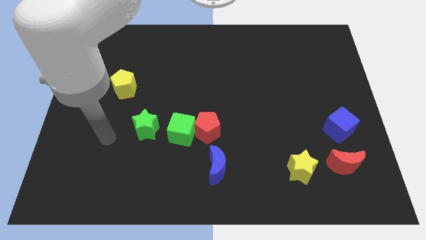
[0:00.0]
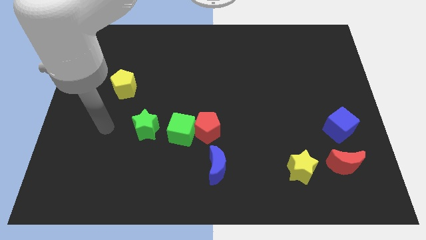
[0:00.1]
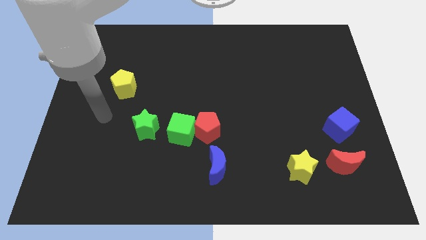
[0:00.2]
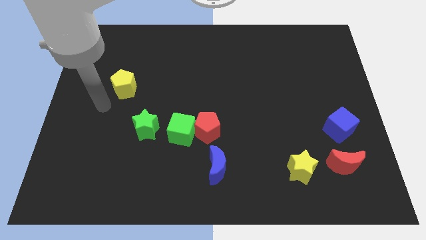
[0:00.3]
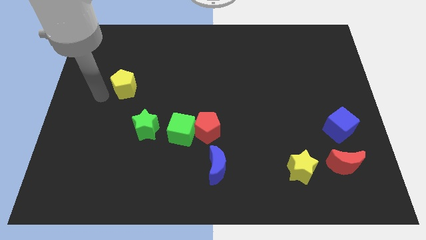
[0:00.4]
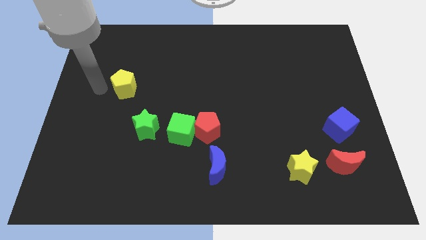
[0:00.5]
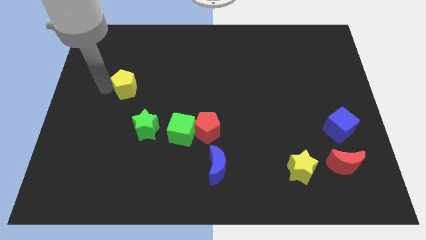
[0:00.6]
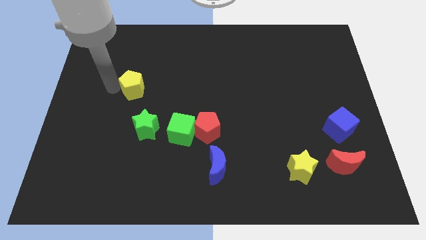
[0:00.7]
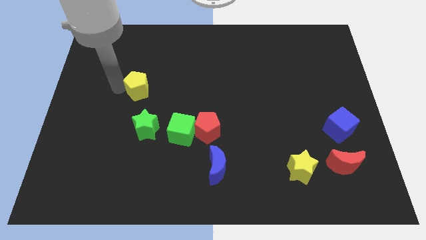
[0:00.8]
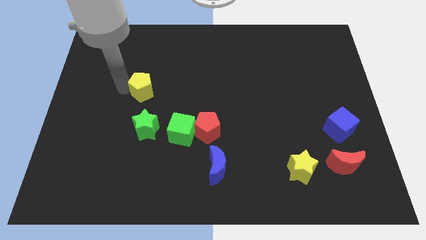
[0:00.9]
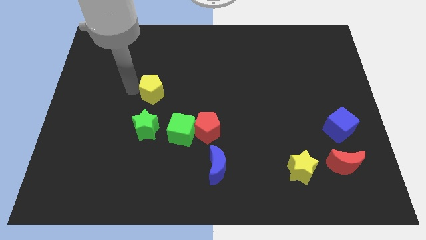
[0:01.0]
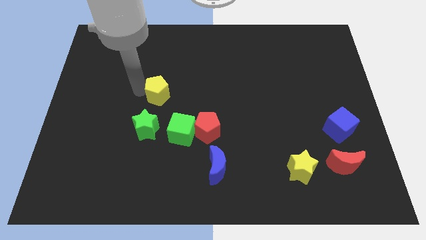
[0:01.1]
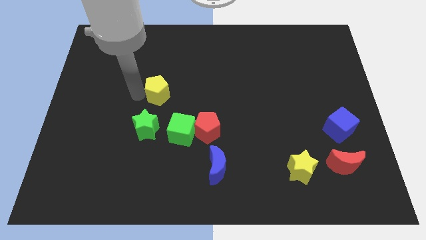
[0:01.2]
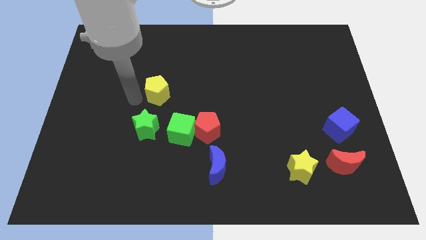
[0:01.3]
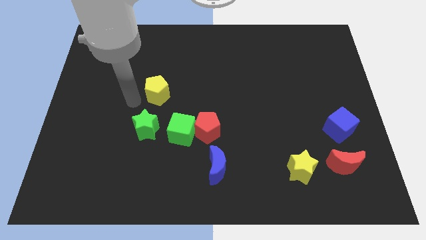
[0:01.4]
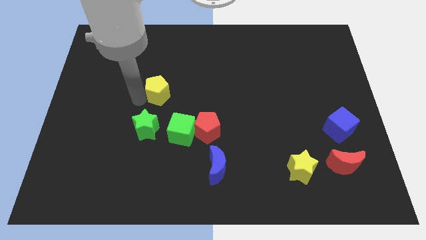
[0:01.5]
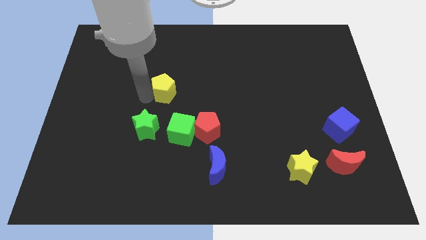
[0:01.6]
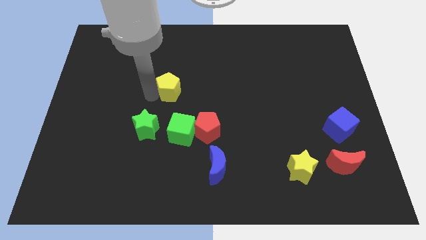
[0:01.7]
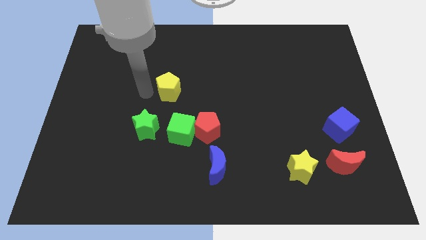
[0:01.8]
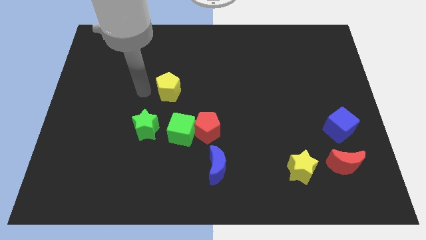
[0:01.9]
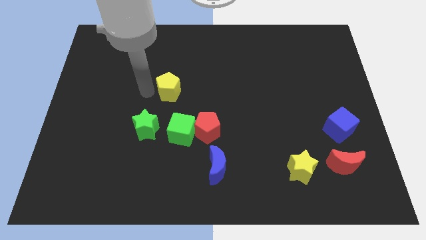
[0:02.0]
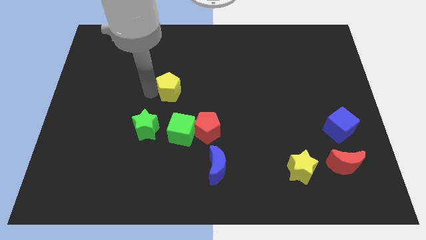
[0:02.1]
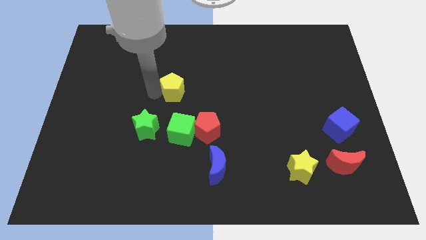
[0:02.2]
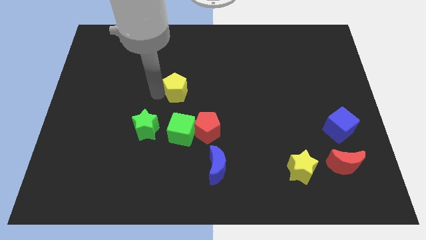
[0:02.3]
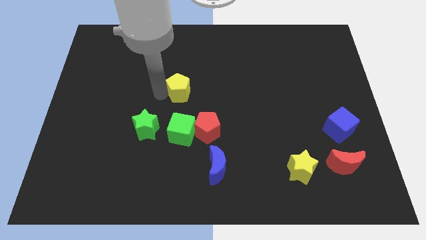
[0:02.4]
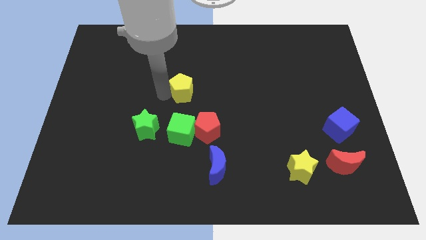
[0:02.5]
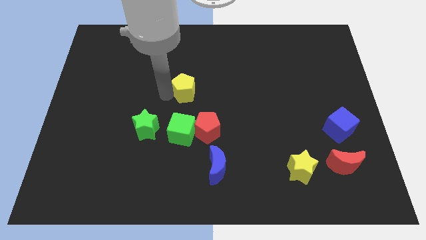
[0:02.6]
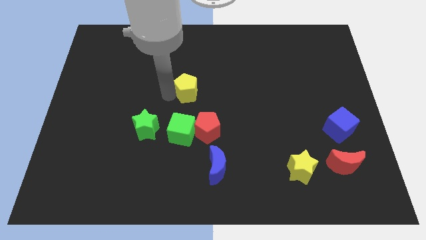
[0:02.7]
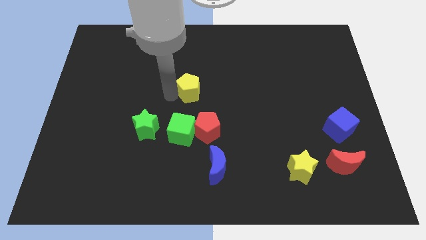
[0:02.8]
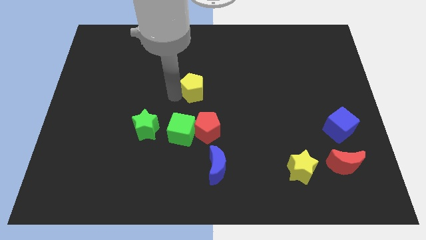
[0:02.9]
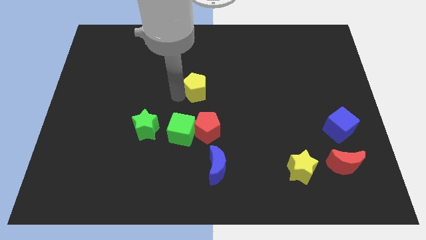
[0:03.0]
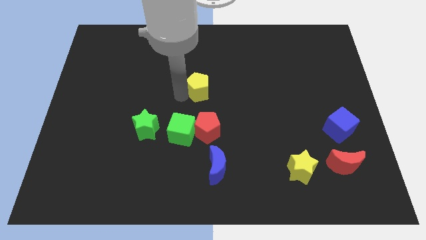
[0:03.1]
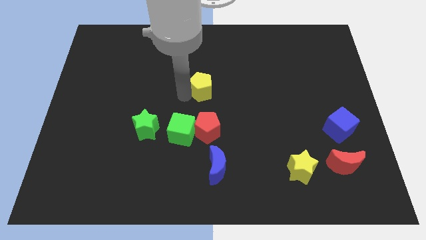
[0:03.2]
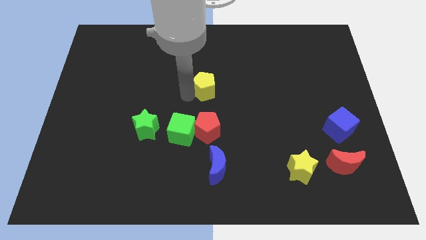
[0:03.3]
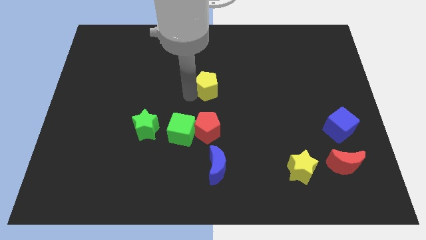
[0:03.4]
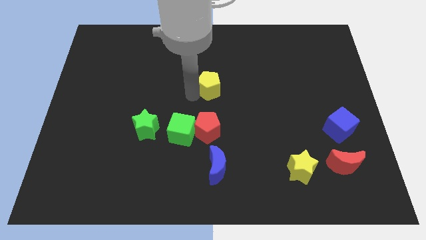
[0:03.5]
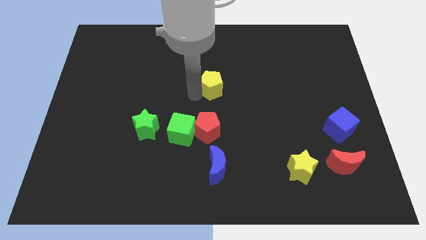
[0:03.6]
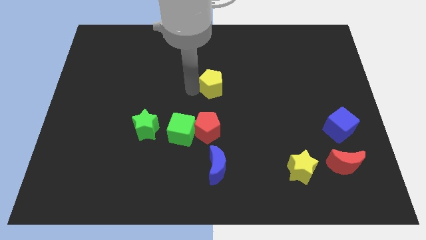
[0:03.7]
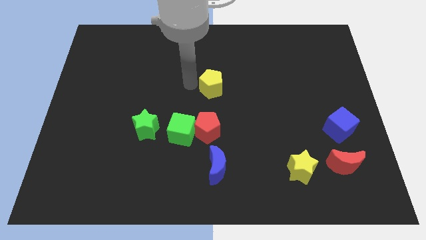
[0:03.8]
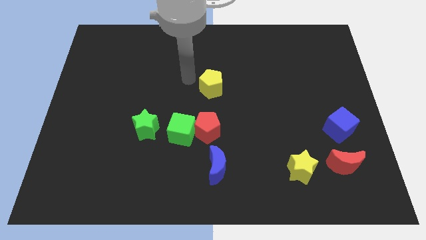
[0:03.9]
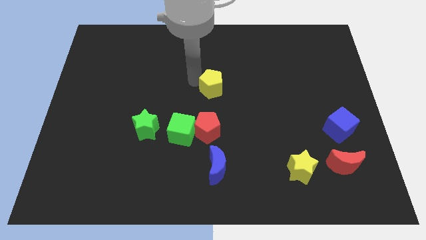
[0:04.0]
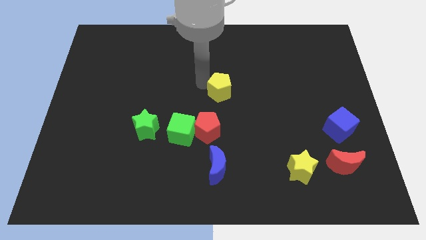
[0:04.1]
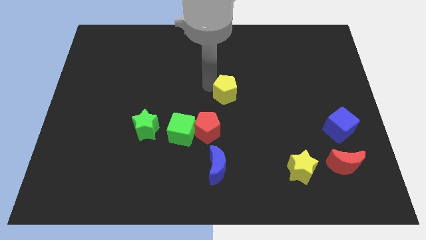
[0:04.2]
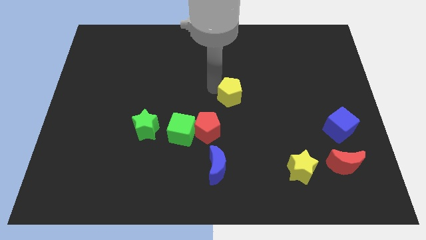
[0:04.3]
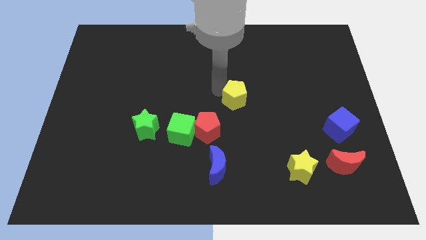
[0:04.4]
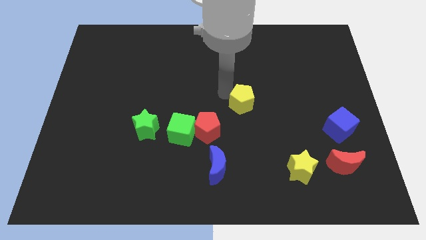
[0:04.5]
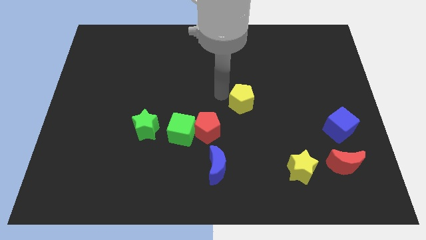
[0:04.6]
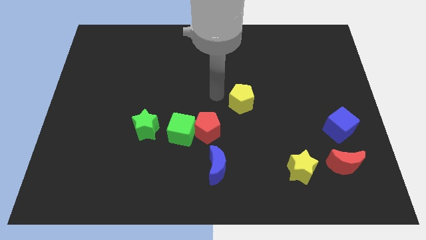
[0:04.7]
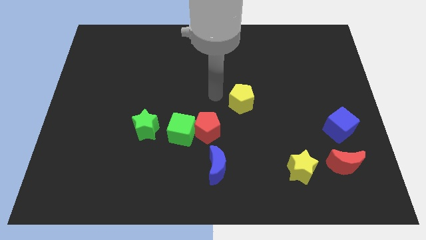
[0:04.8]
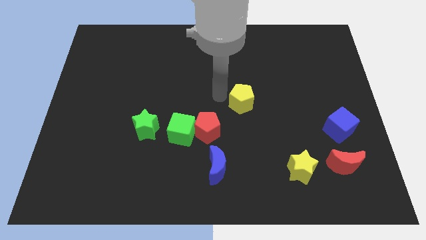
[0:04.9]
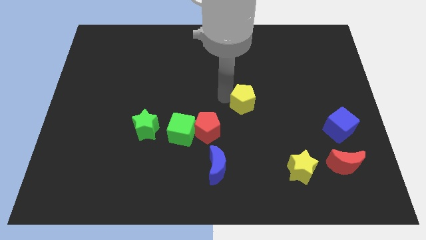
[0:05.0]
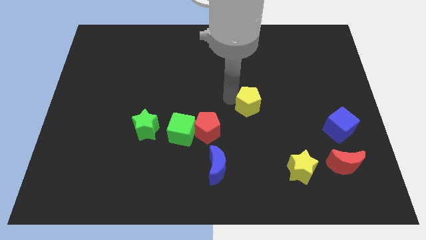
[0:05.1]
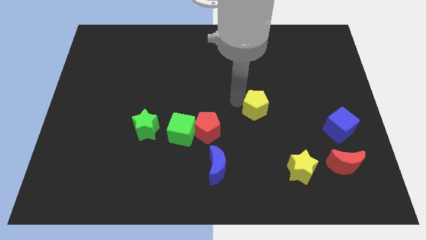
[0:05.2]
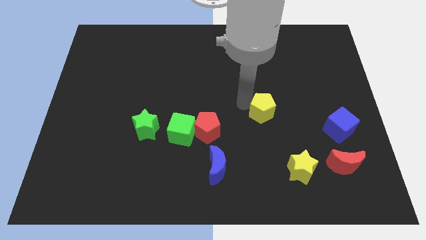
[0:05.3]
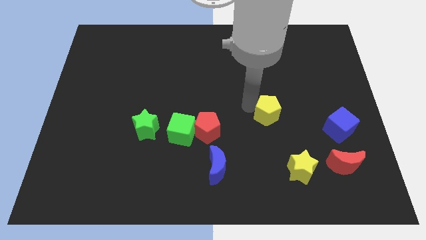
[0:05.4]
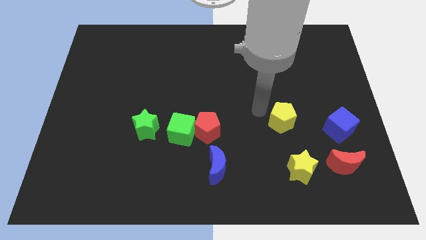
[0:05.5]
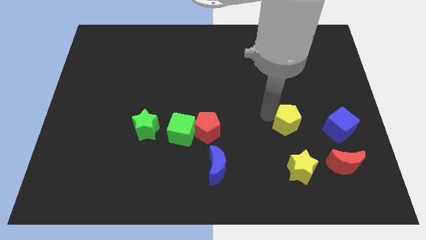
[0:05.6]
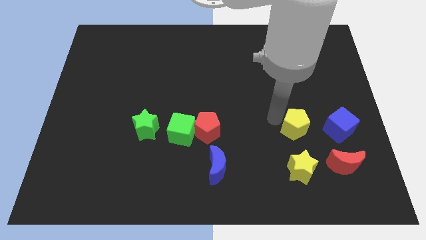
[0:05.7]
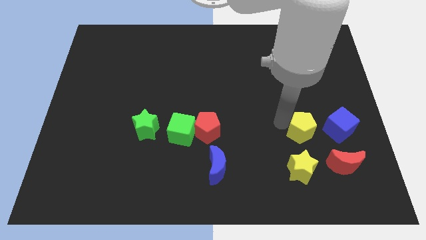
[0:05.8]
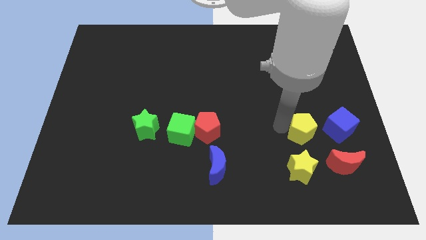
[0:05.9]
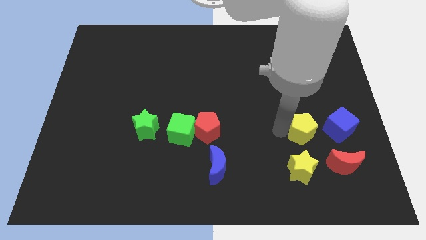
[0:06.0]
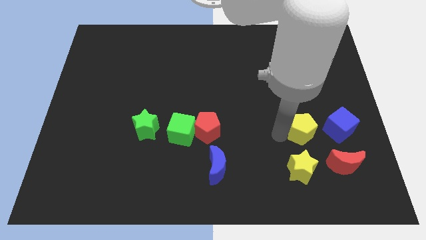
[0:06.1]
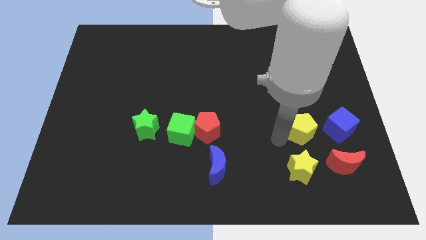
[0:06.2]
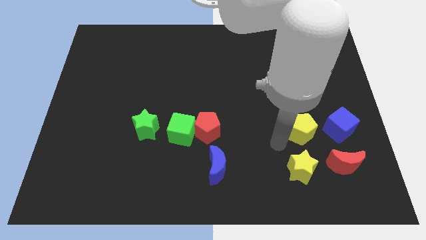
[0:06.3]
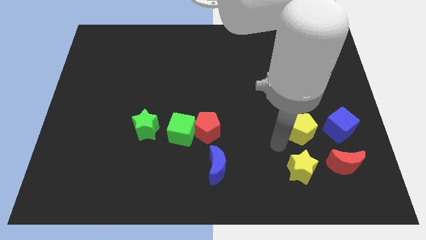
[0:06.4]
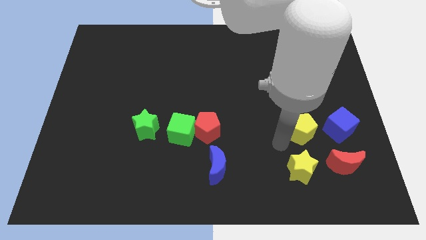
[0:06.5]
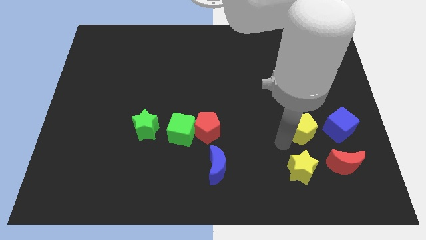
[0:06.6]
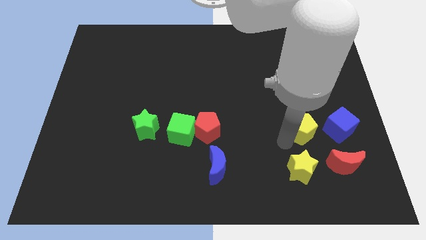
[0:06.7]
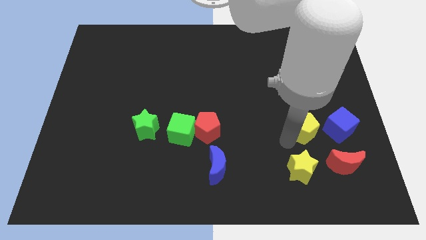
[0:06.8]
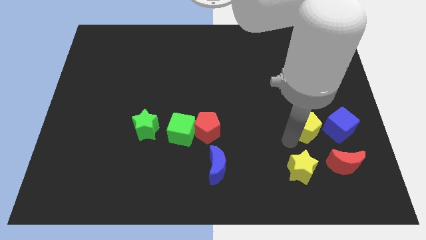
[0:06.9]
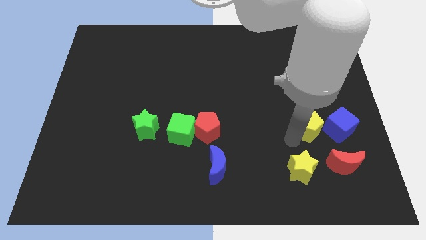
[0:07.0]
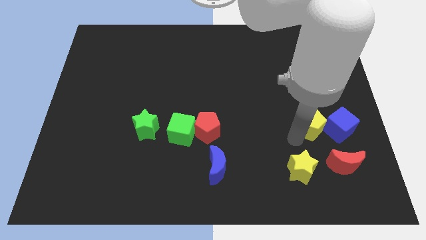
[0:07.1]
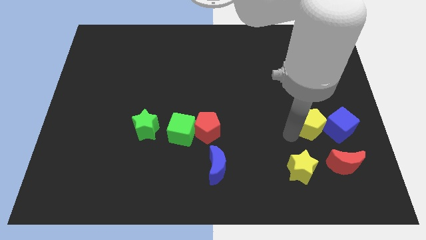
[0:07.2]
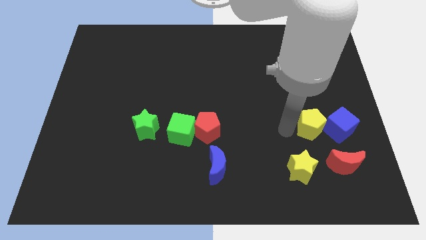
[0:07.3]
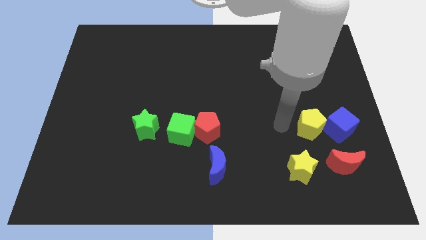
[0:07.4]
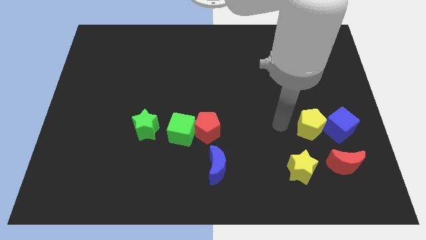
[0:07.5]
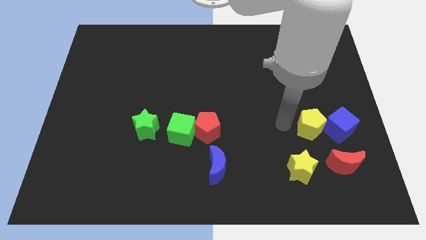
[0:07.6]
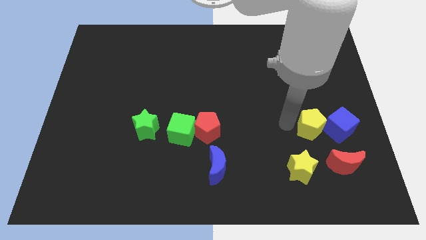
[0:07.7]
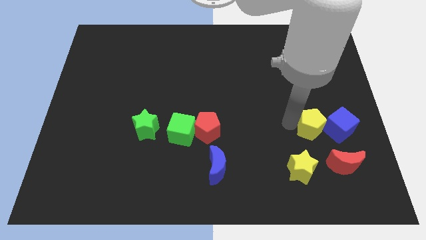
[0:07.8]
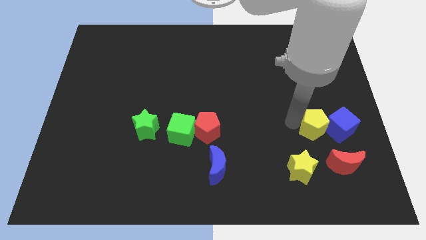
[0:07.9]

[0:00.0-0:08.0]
put the yellow pentagon towards the blue cube
